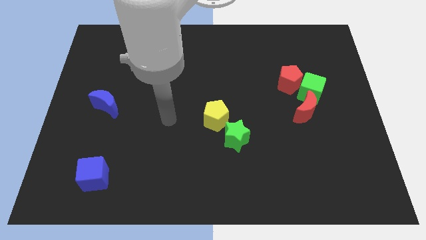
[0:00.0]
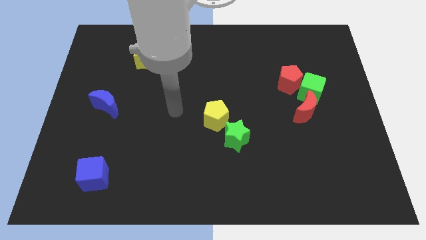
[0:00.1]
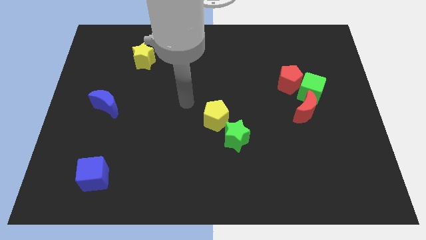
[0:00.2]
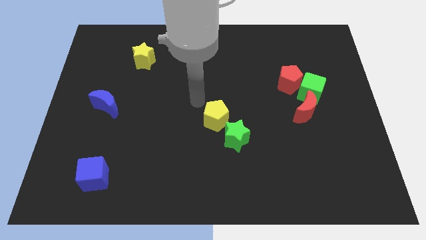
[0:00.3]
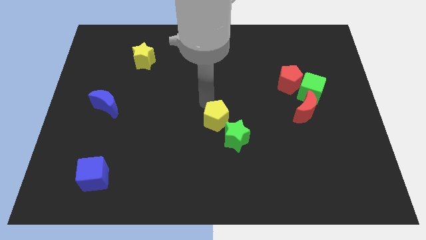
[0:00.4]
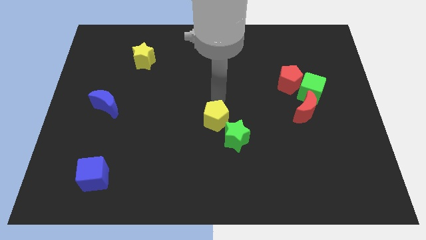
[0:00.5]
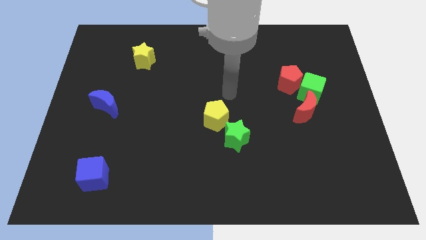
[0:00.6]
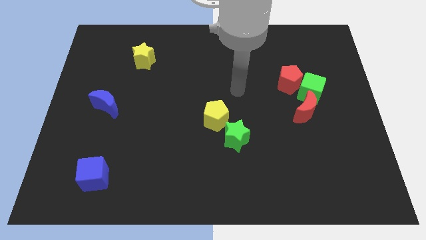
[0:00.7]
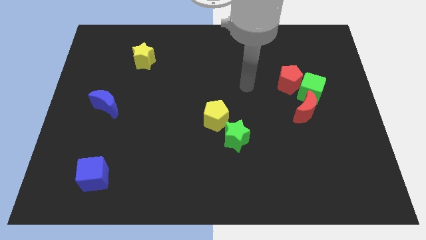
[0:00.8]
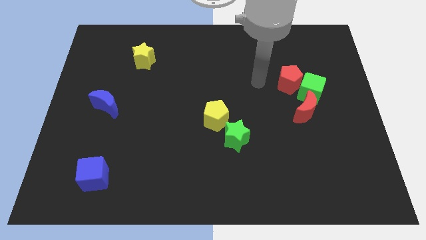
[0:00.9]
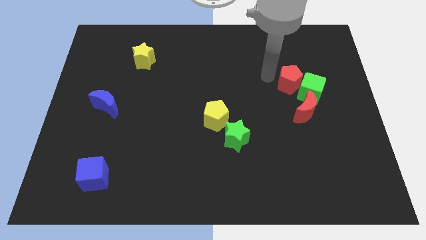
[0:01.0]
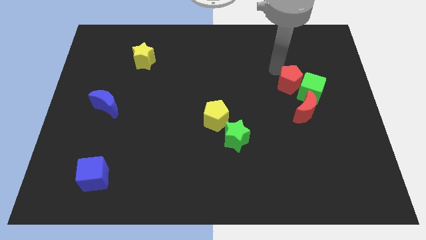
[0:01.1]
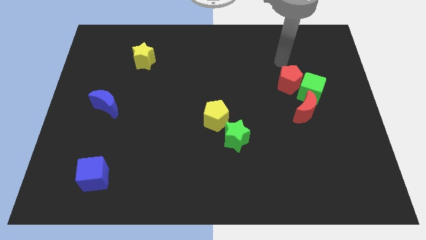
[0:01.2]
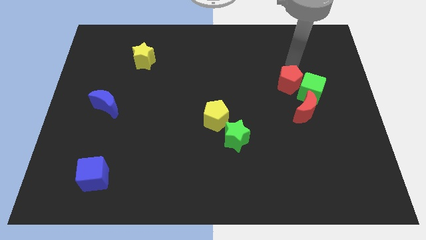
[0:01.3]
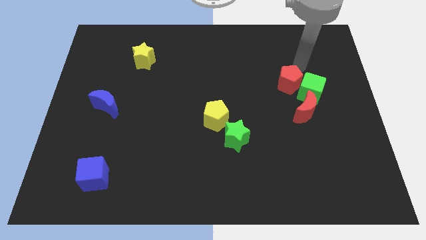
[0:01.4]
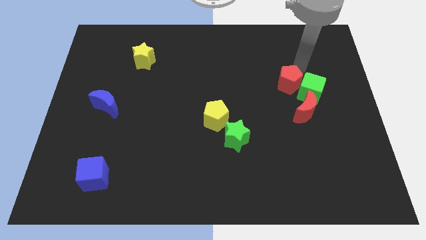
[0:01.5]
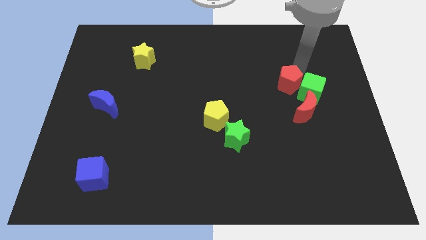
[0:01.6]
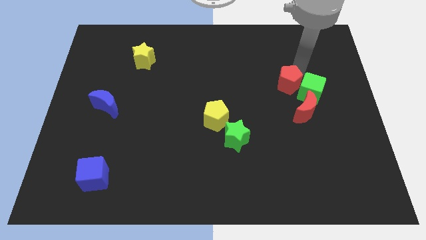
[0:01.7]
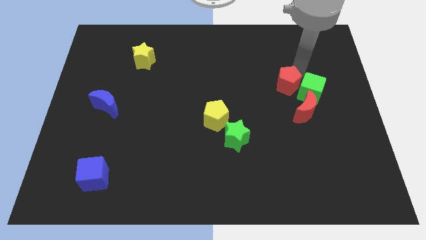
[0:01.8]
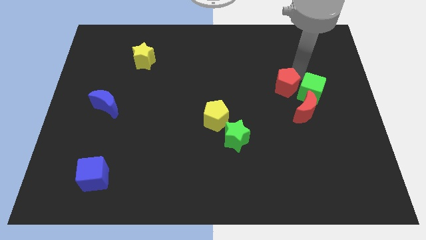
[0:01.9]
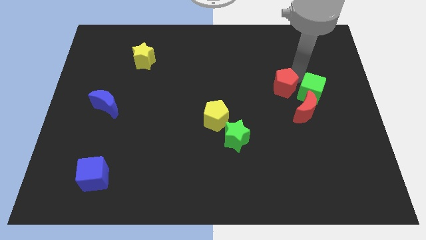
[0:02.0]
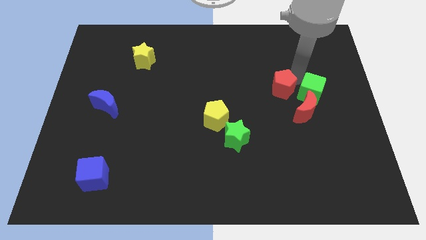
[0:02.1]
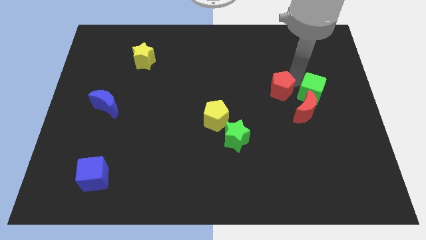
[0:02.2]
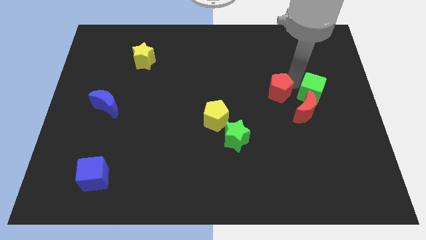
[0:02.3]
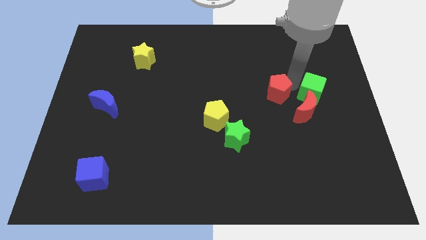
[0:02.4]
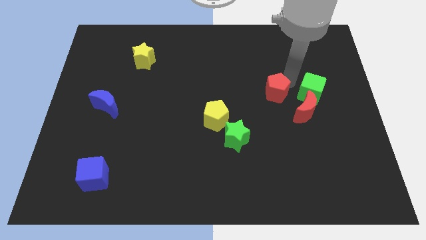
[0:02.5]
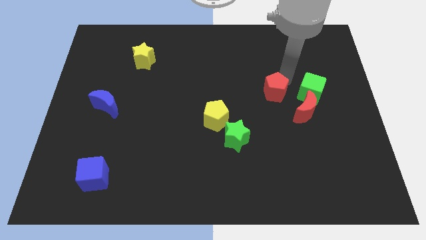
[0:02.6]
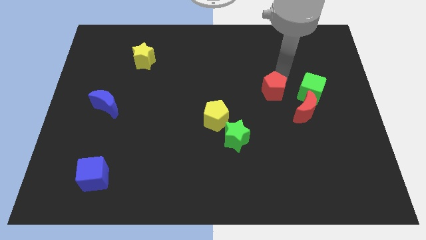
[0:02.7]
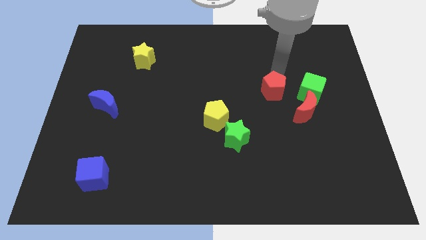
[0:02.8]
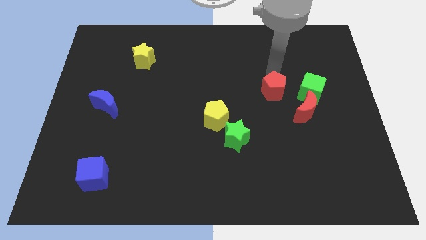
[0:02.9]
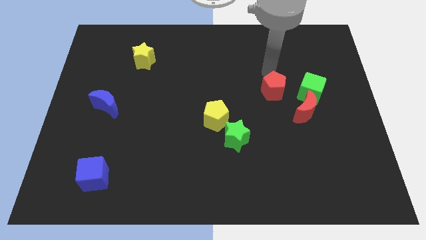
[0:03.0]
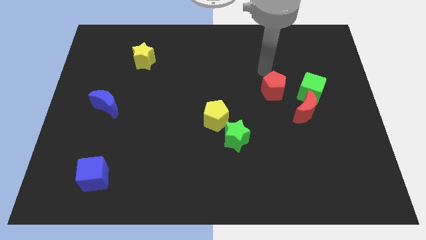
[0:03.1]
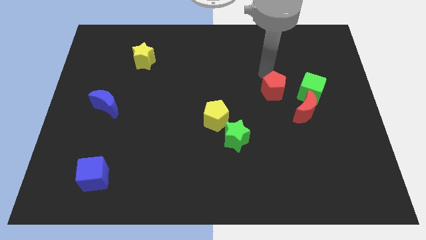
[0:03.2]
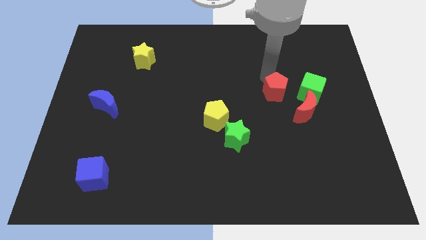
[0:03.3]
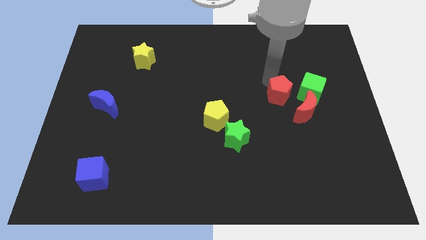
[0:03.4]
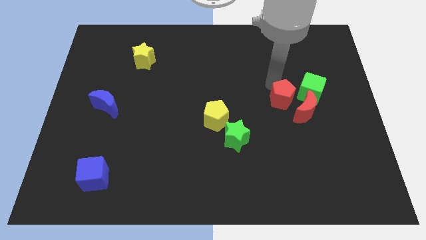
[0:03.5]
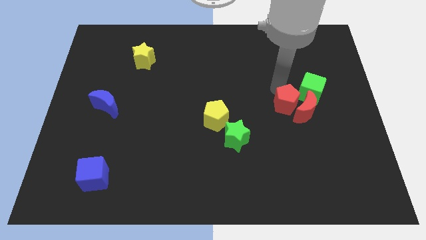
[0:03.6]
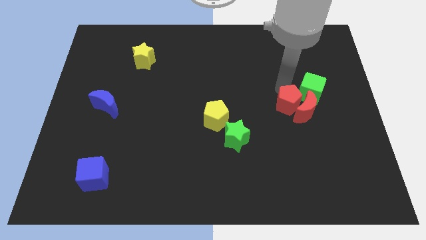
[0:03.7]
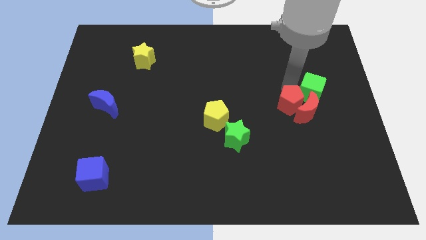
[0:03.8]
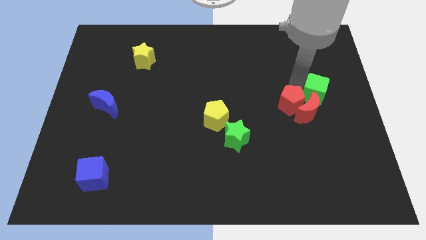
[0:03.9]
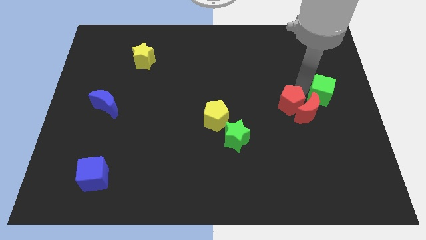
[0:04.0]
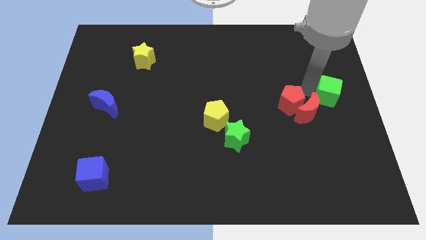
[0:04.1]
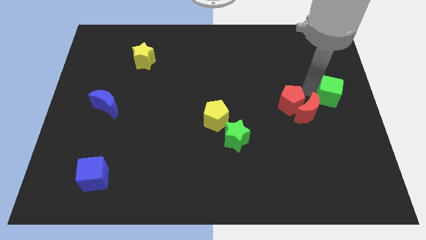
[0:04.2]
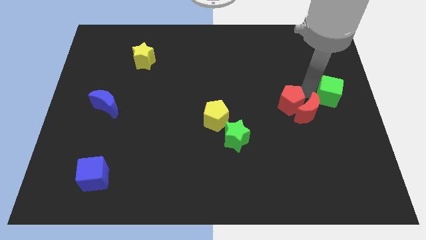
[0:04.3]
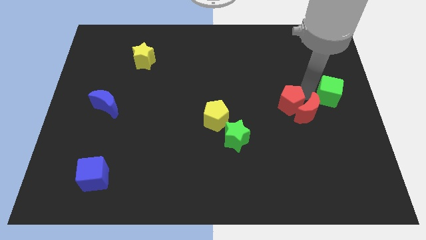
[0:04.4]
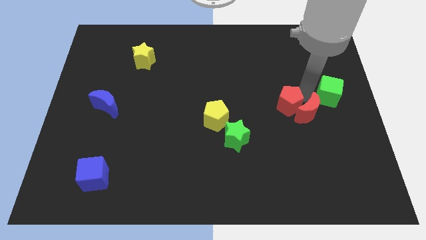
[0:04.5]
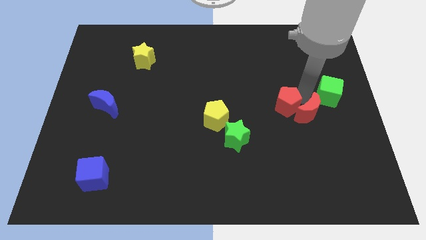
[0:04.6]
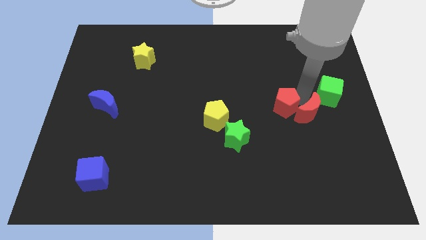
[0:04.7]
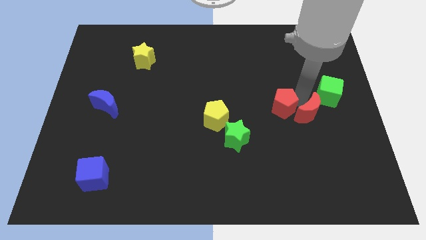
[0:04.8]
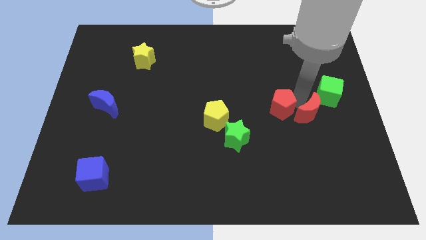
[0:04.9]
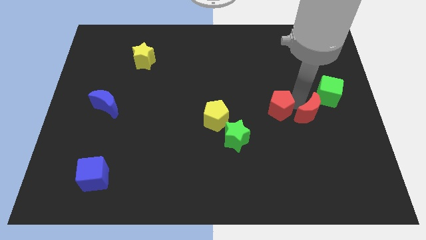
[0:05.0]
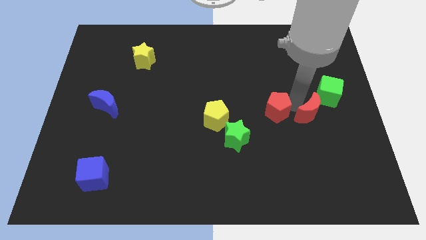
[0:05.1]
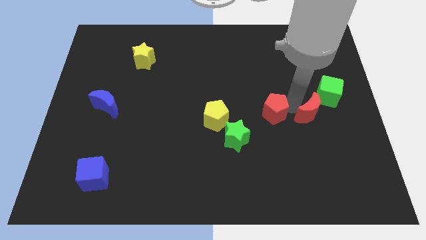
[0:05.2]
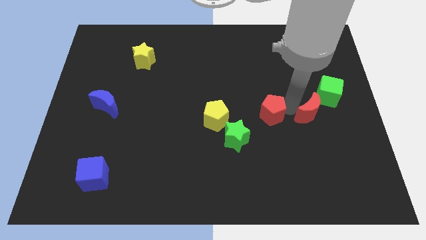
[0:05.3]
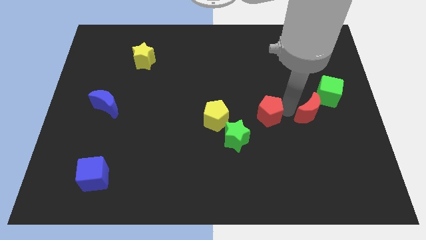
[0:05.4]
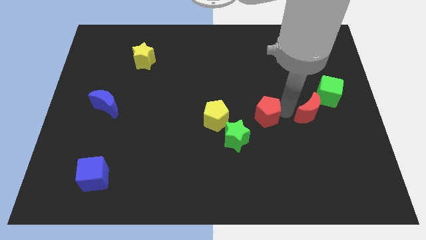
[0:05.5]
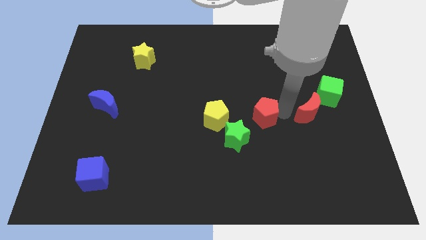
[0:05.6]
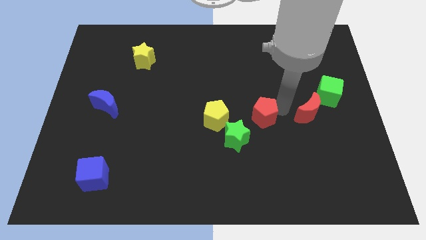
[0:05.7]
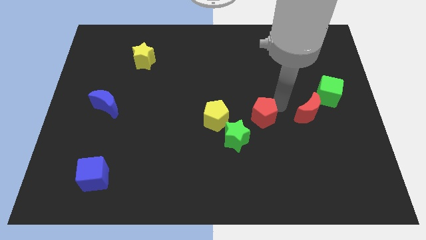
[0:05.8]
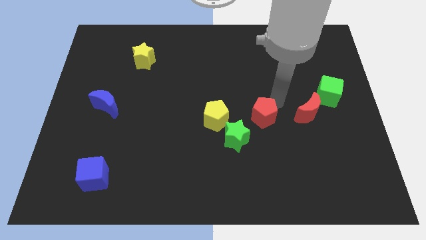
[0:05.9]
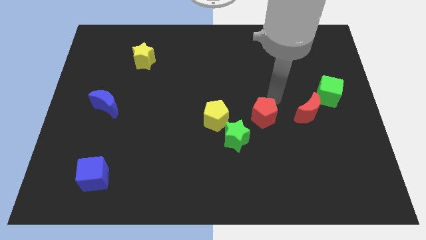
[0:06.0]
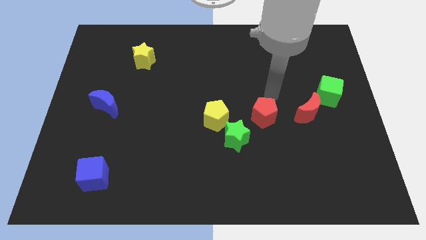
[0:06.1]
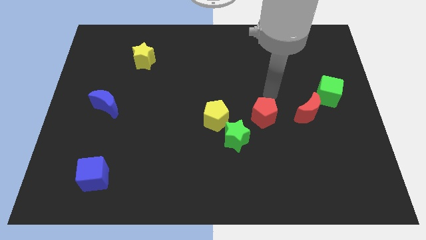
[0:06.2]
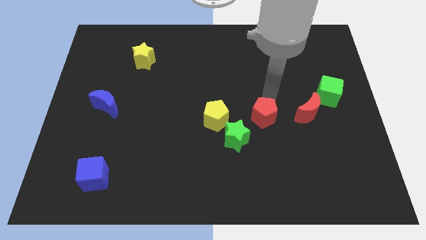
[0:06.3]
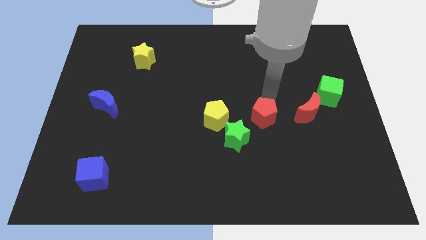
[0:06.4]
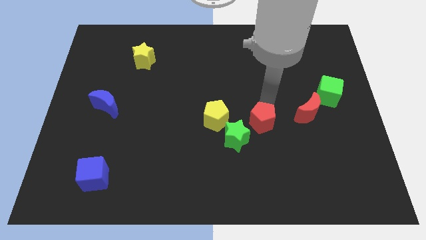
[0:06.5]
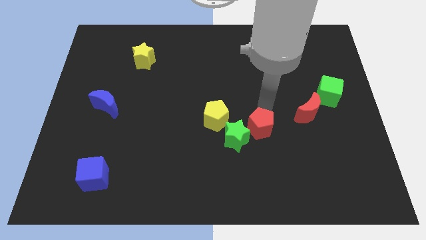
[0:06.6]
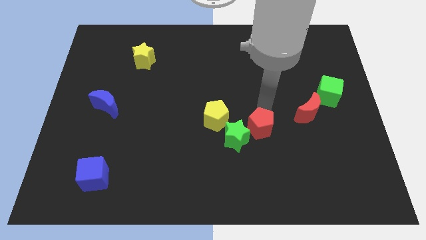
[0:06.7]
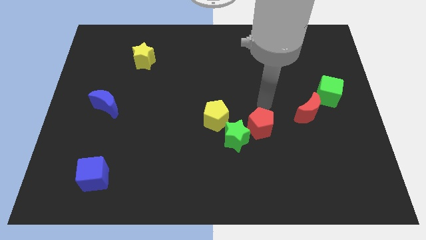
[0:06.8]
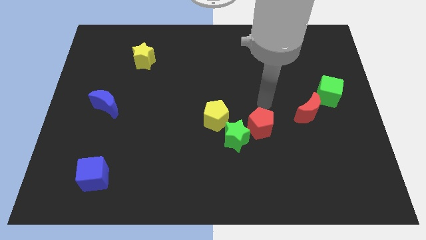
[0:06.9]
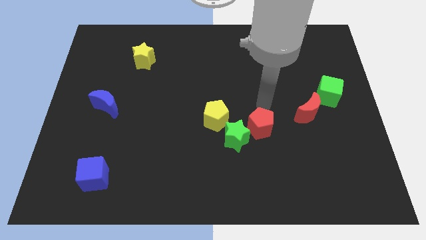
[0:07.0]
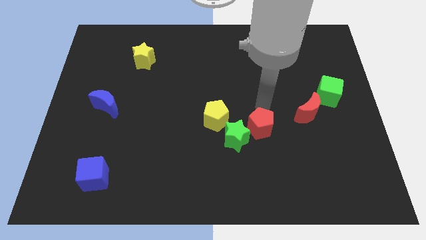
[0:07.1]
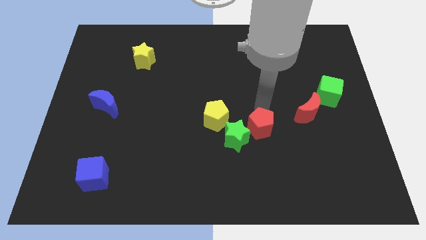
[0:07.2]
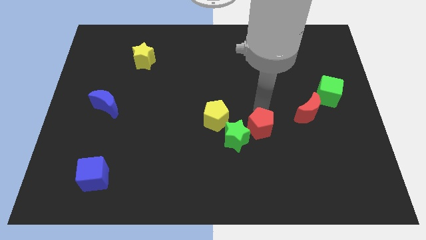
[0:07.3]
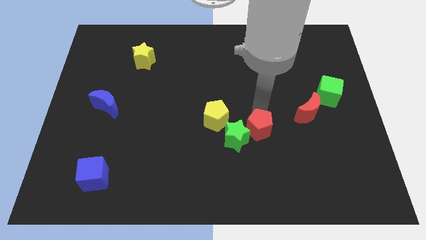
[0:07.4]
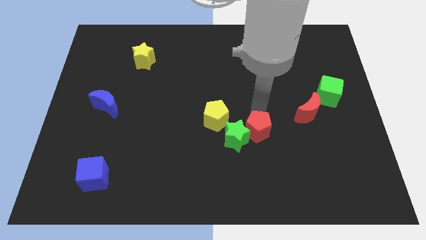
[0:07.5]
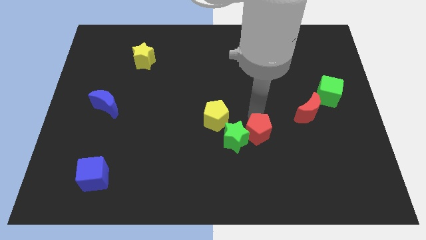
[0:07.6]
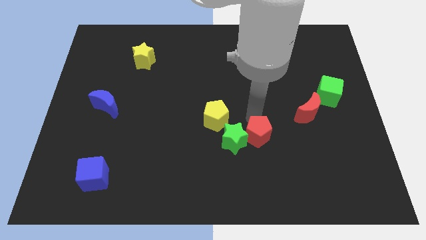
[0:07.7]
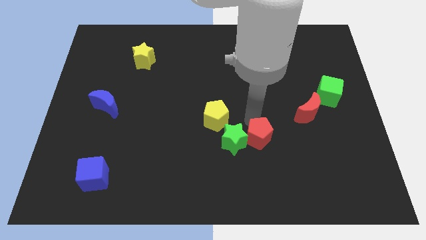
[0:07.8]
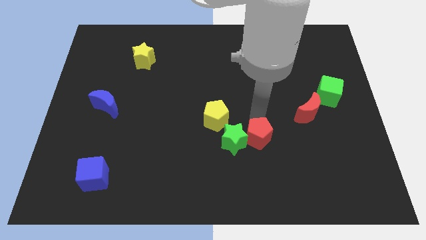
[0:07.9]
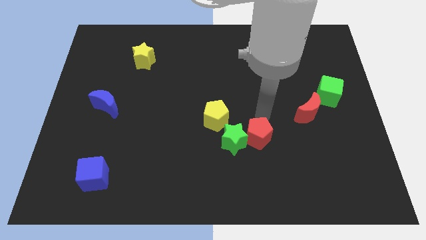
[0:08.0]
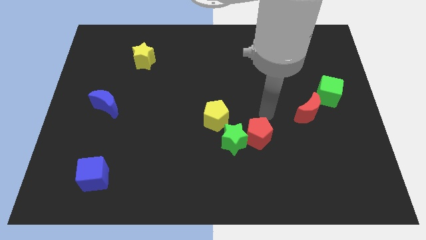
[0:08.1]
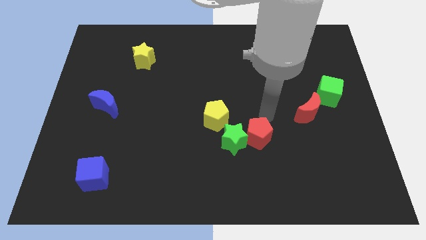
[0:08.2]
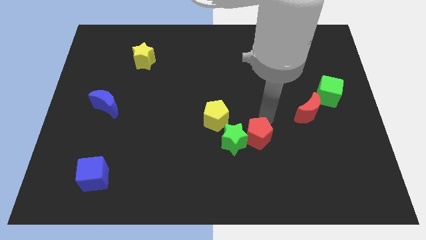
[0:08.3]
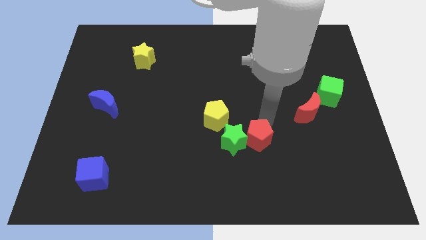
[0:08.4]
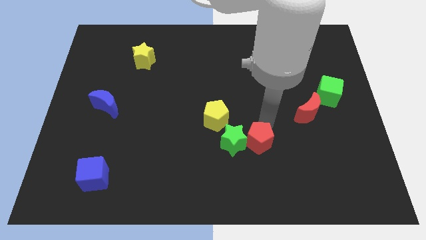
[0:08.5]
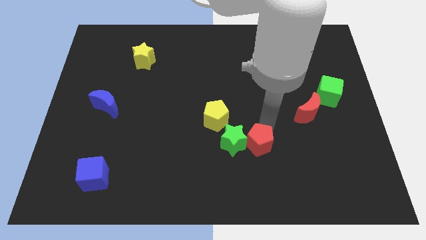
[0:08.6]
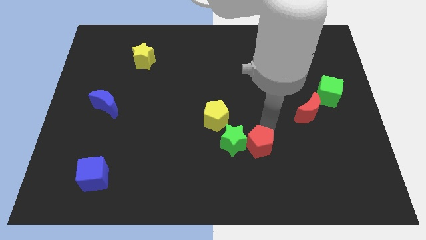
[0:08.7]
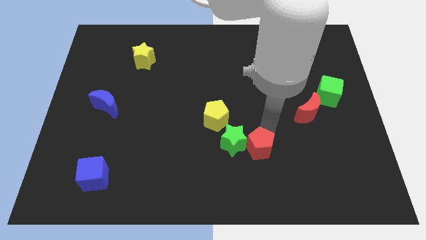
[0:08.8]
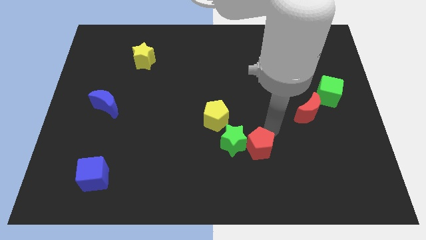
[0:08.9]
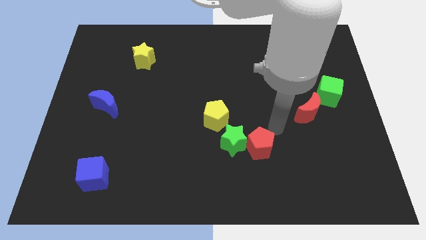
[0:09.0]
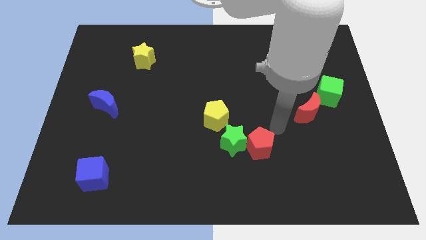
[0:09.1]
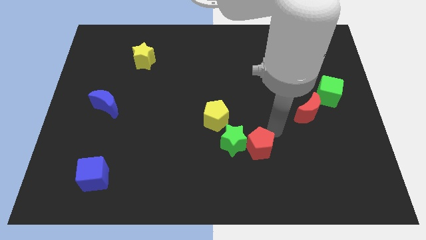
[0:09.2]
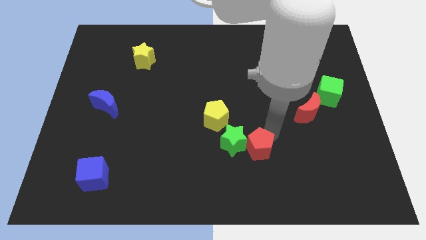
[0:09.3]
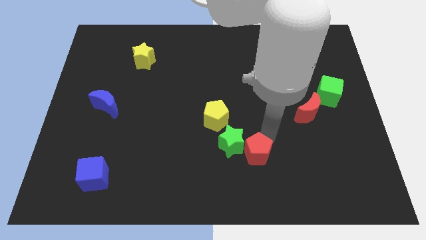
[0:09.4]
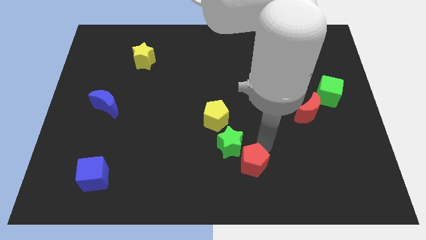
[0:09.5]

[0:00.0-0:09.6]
push the red pentagon diagonally down and to the left
